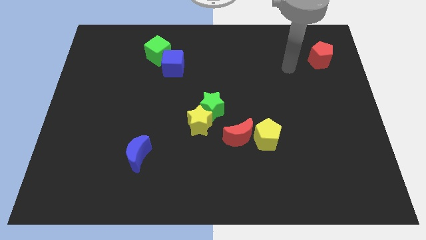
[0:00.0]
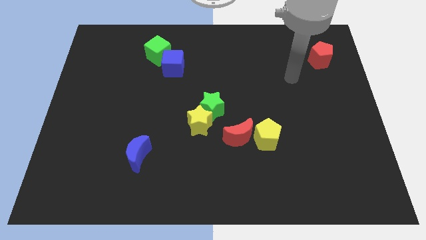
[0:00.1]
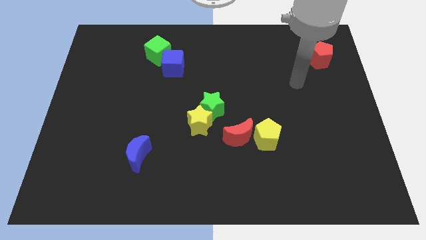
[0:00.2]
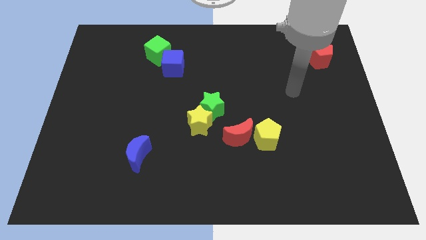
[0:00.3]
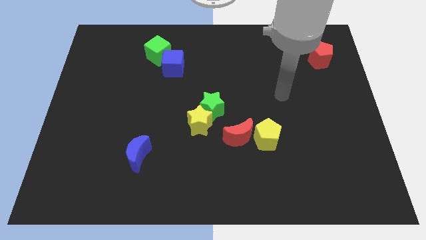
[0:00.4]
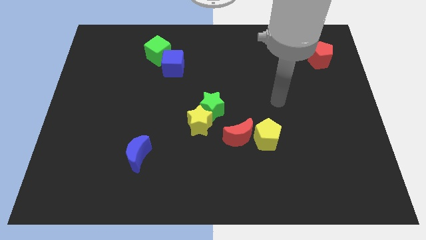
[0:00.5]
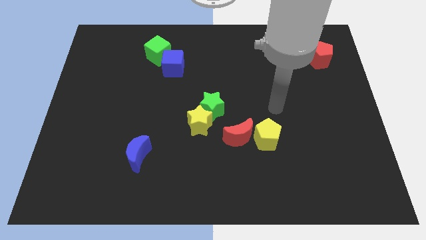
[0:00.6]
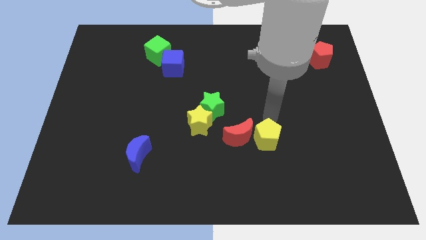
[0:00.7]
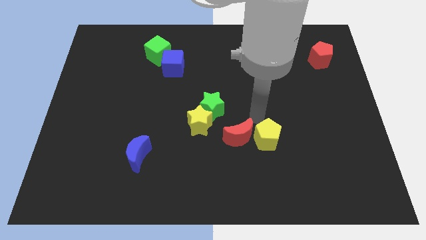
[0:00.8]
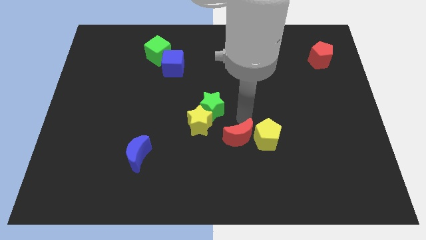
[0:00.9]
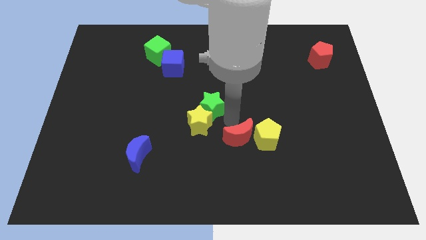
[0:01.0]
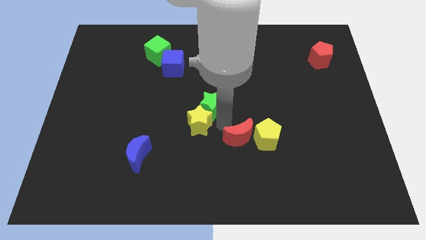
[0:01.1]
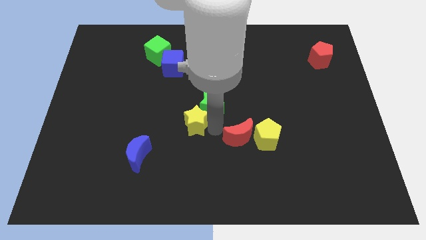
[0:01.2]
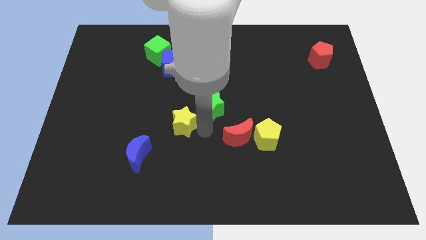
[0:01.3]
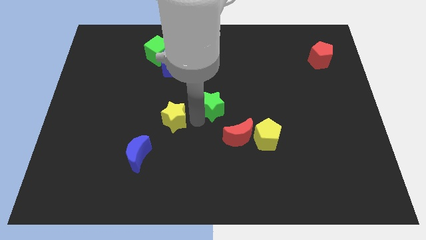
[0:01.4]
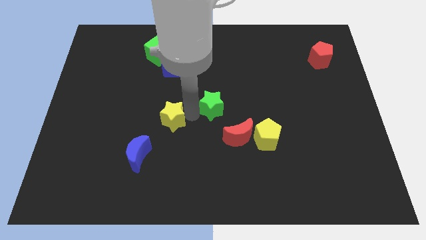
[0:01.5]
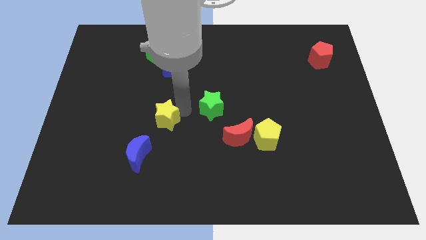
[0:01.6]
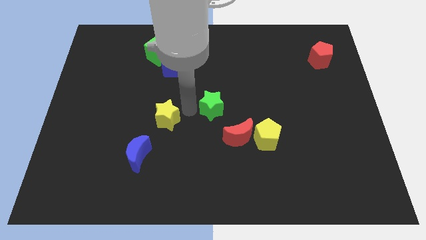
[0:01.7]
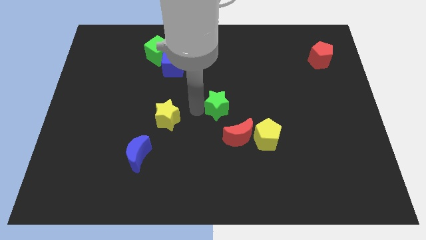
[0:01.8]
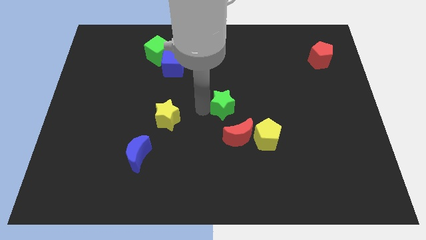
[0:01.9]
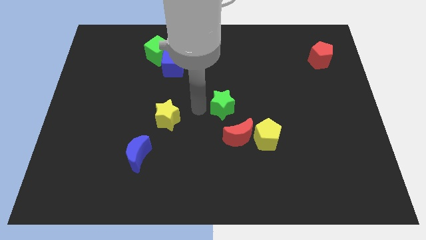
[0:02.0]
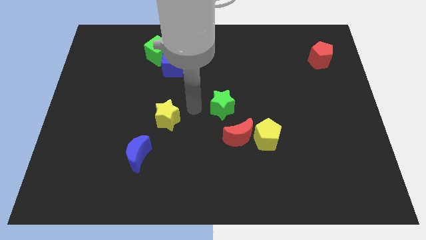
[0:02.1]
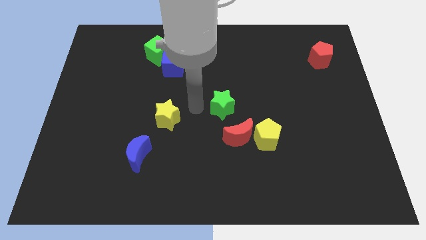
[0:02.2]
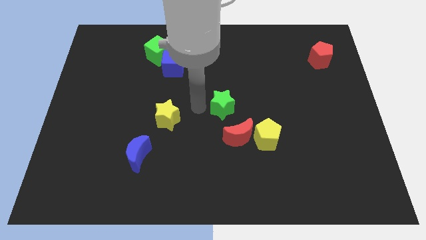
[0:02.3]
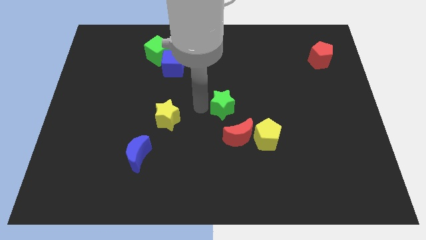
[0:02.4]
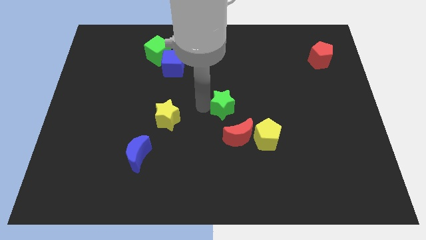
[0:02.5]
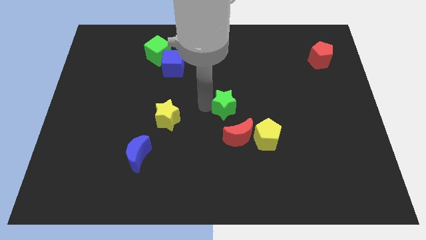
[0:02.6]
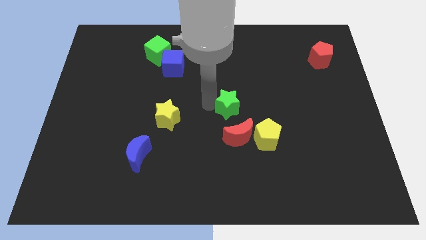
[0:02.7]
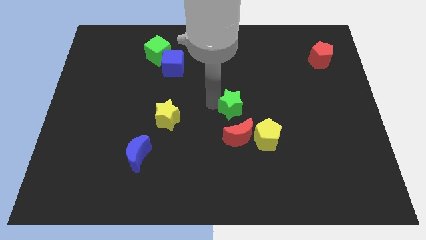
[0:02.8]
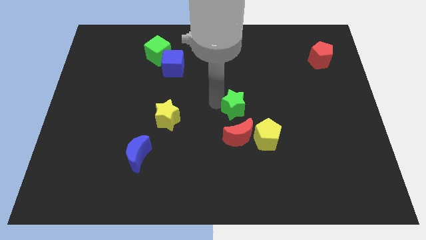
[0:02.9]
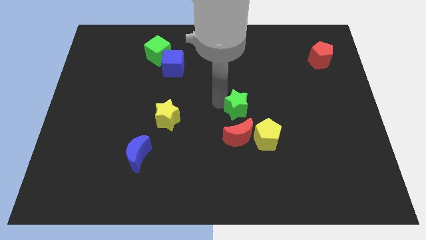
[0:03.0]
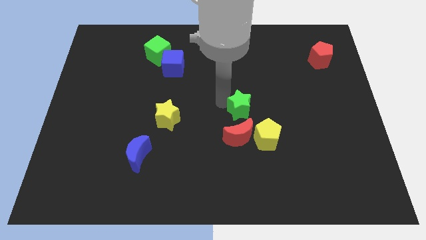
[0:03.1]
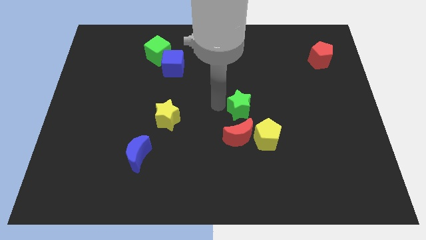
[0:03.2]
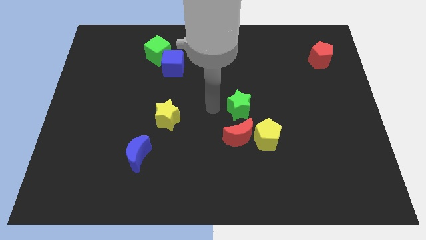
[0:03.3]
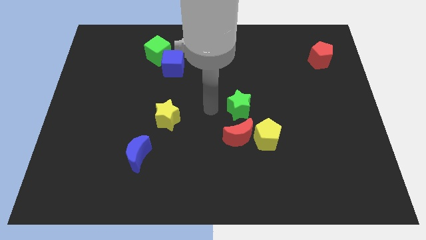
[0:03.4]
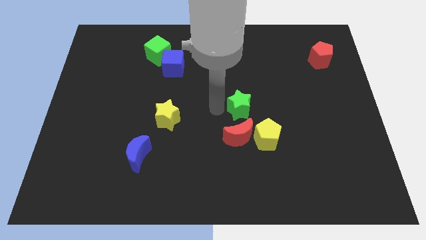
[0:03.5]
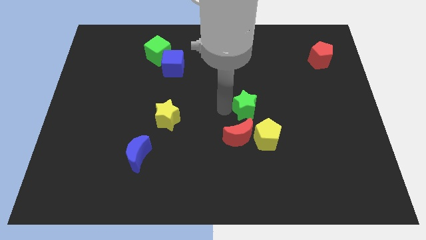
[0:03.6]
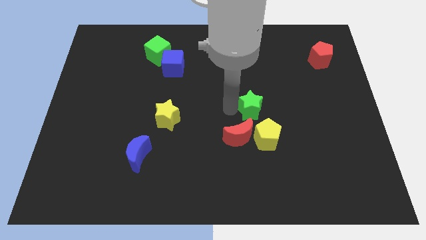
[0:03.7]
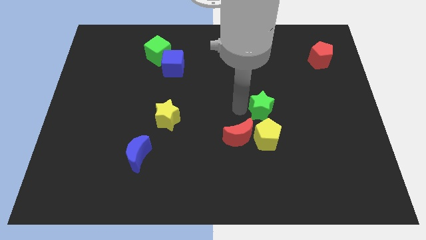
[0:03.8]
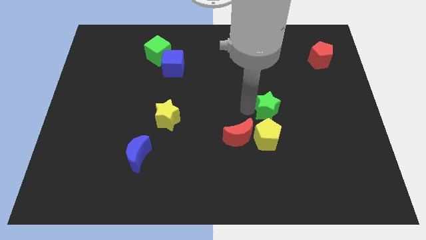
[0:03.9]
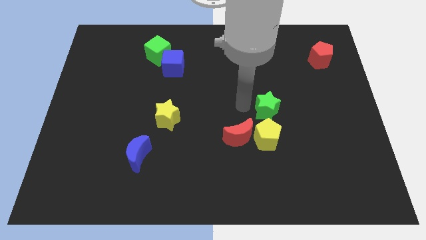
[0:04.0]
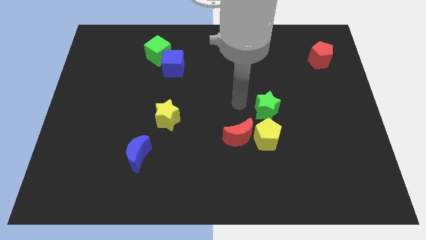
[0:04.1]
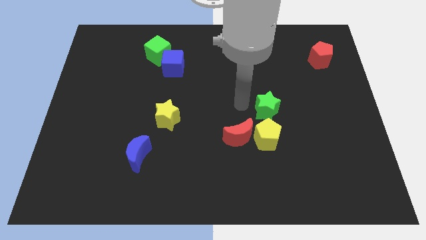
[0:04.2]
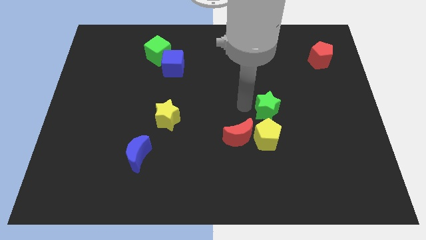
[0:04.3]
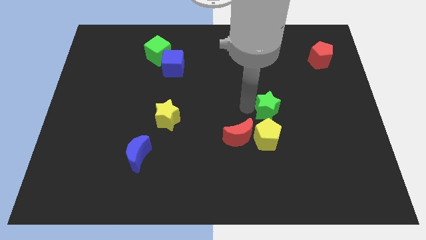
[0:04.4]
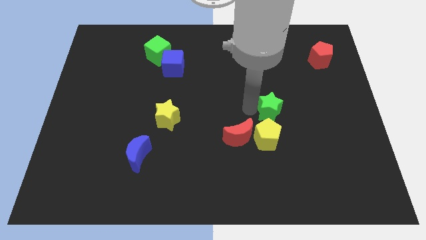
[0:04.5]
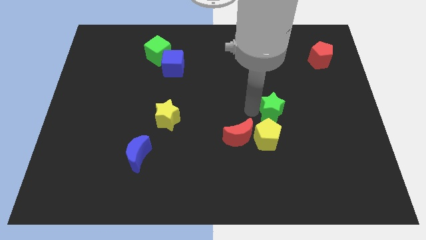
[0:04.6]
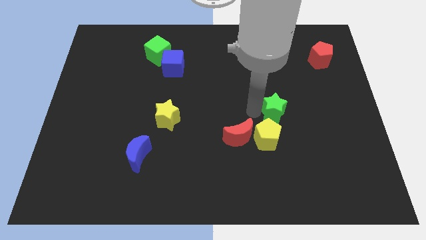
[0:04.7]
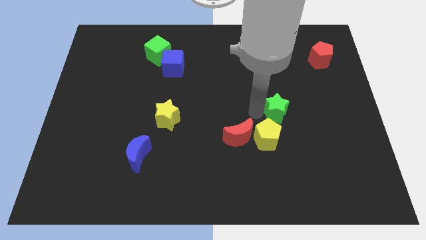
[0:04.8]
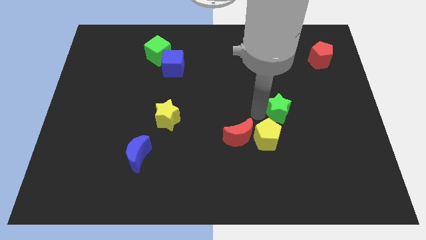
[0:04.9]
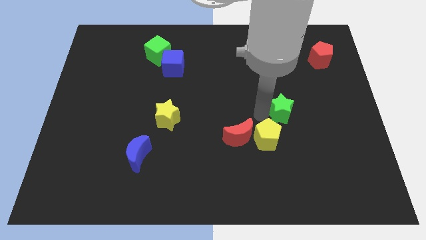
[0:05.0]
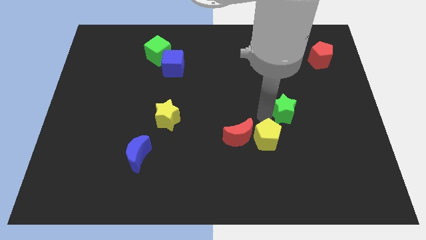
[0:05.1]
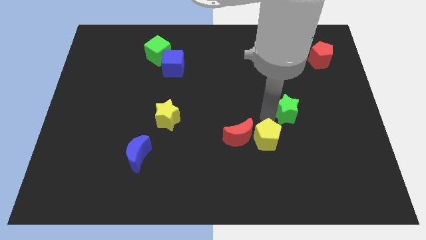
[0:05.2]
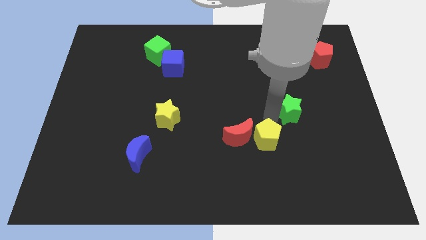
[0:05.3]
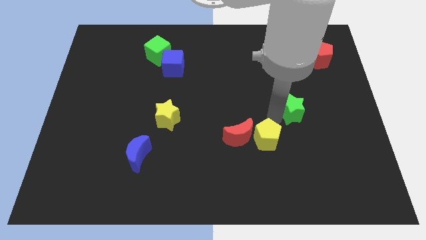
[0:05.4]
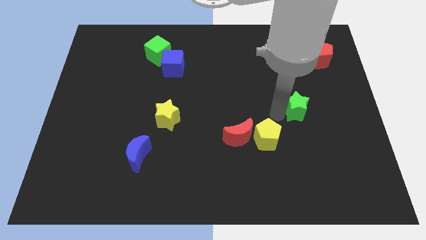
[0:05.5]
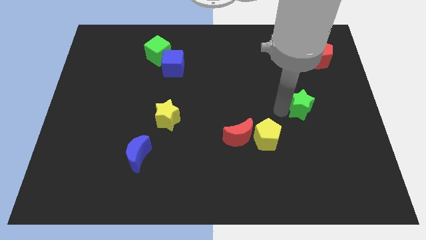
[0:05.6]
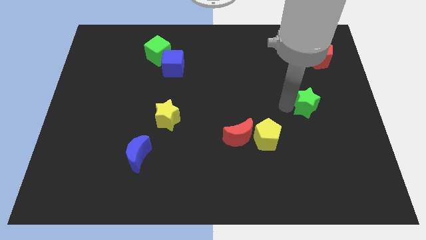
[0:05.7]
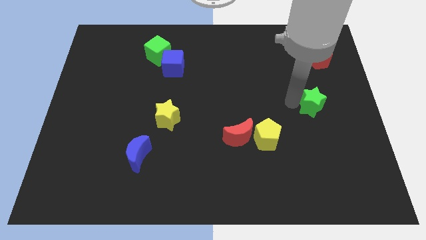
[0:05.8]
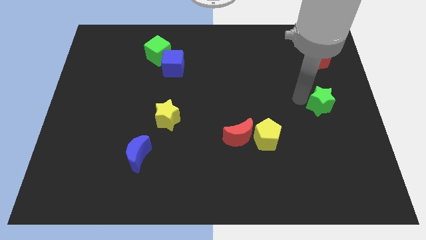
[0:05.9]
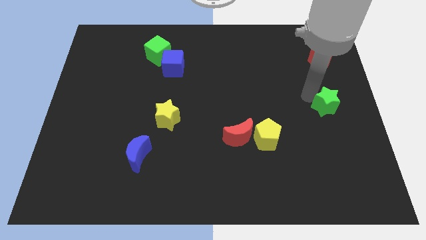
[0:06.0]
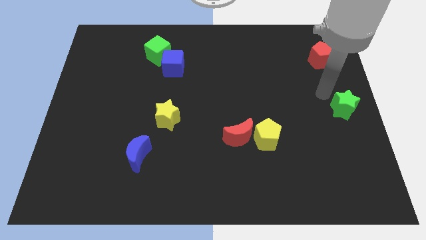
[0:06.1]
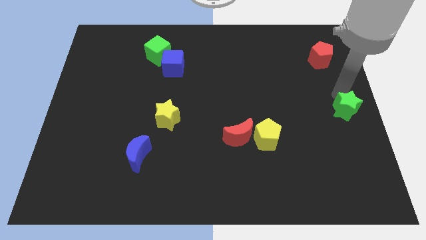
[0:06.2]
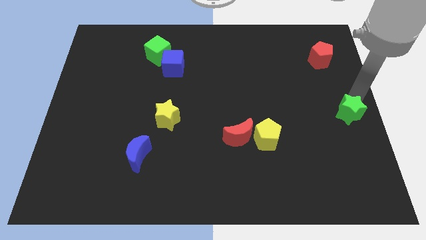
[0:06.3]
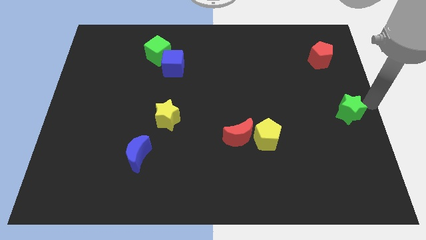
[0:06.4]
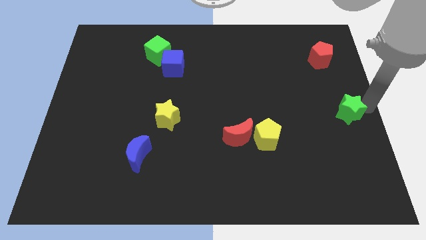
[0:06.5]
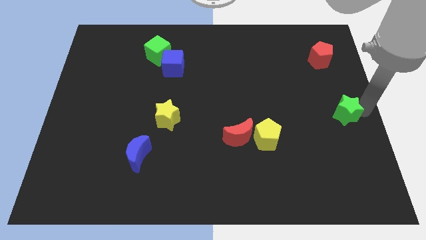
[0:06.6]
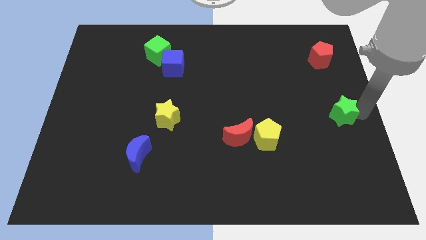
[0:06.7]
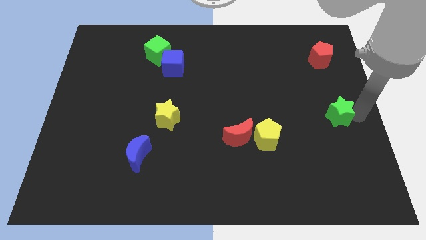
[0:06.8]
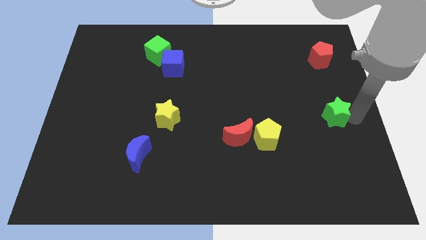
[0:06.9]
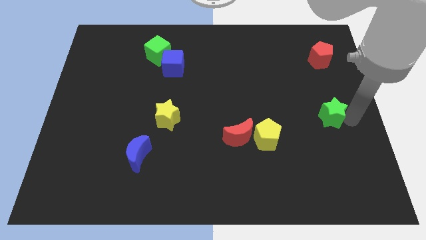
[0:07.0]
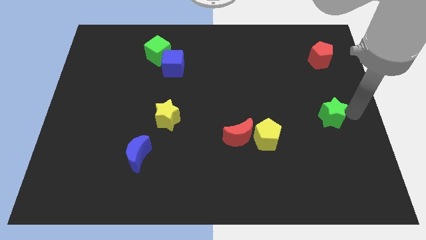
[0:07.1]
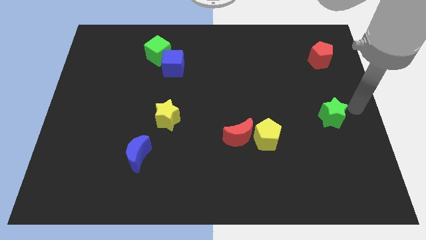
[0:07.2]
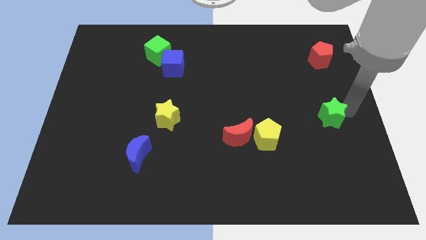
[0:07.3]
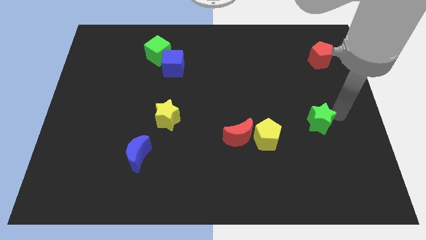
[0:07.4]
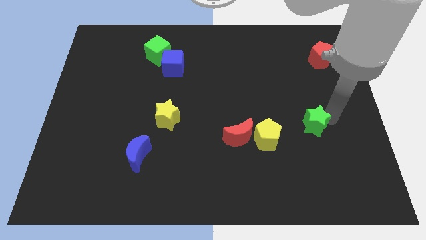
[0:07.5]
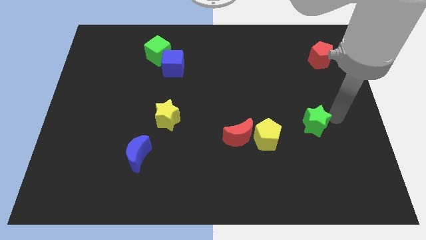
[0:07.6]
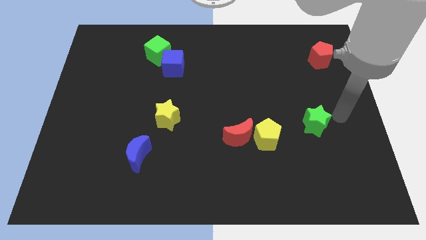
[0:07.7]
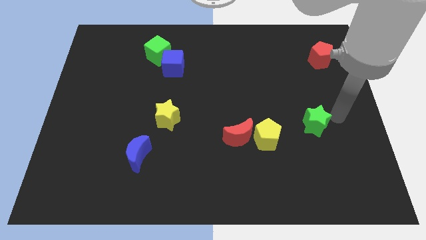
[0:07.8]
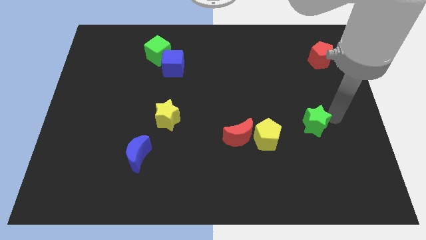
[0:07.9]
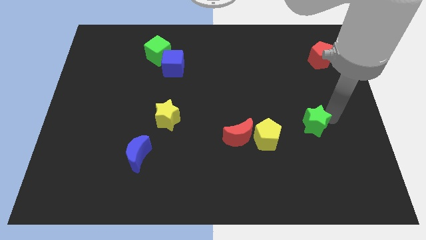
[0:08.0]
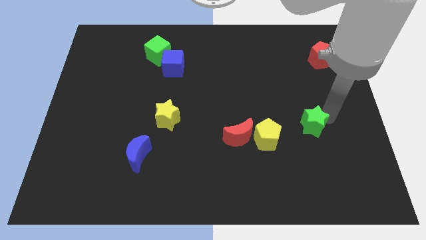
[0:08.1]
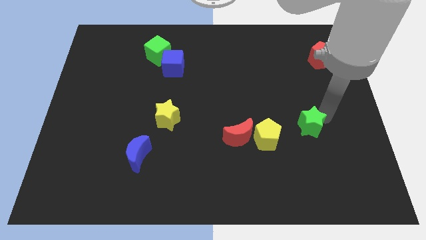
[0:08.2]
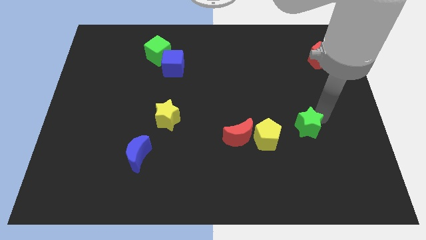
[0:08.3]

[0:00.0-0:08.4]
slightly move the green star down and to the right
